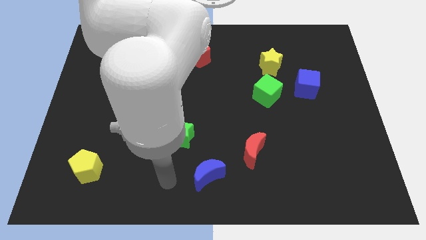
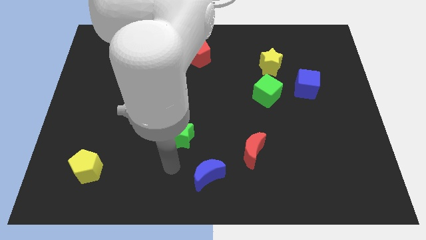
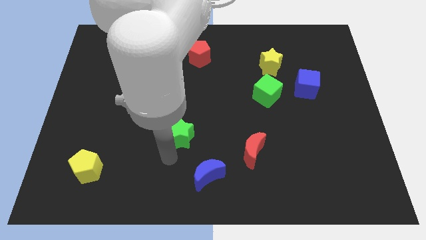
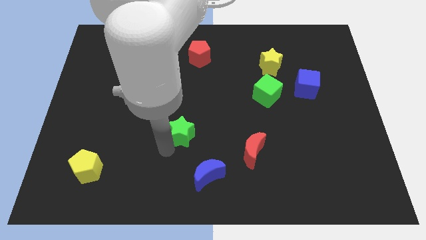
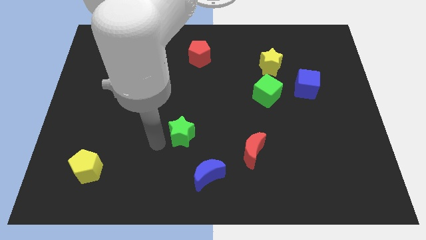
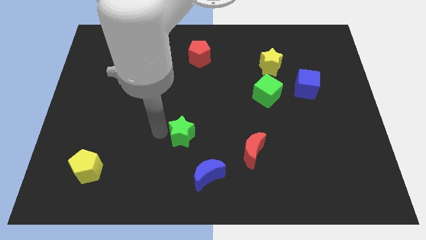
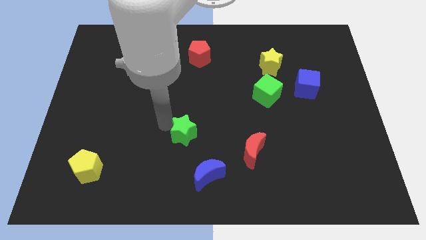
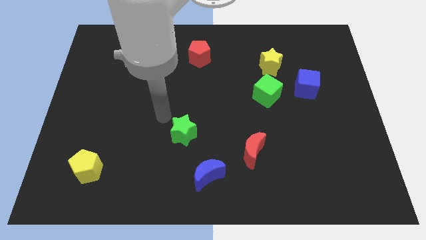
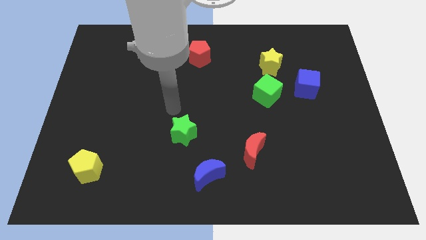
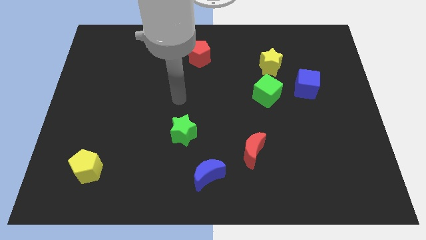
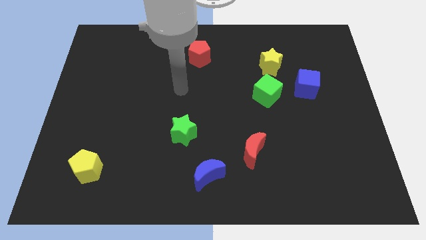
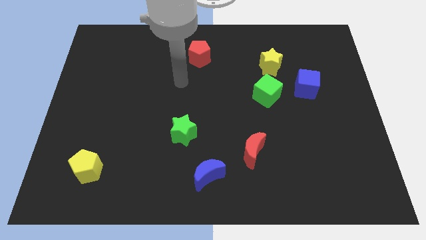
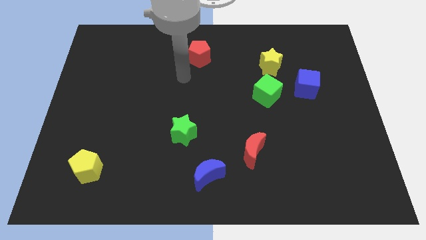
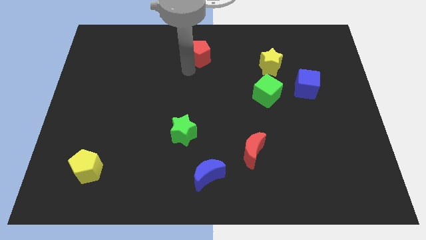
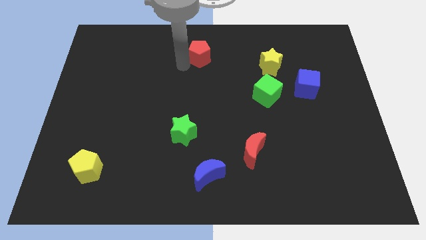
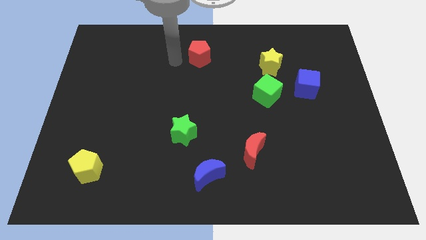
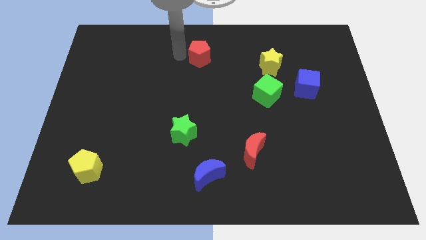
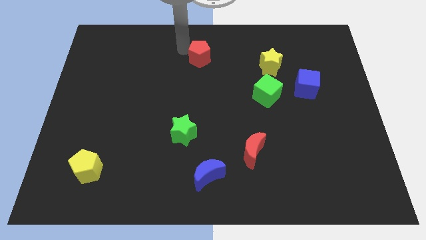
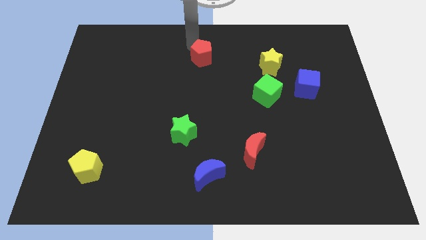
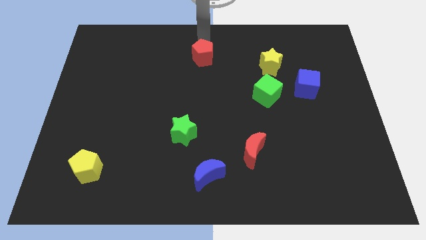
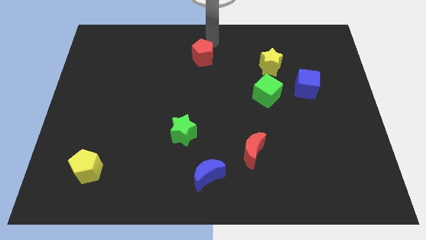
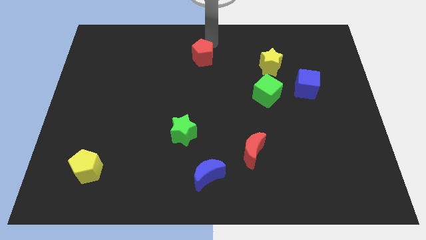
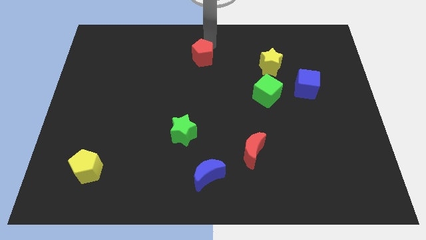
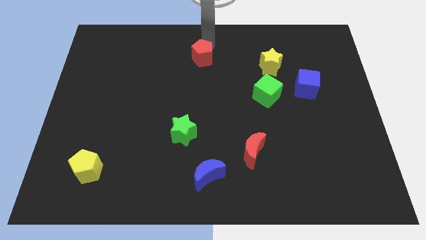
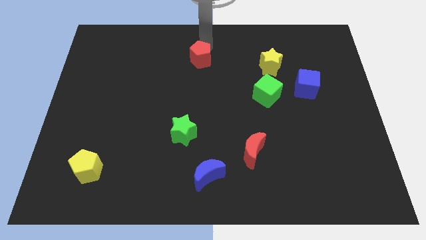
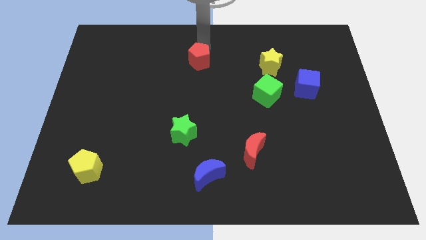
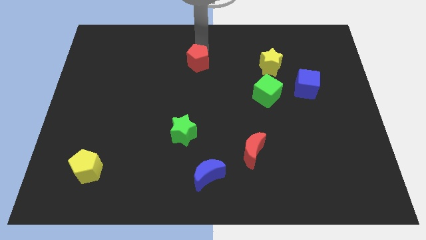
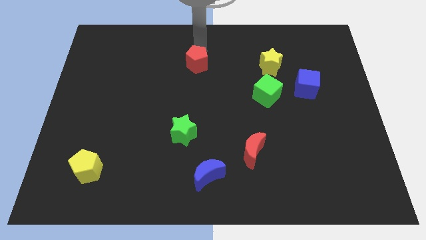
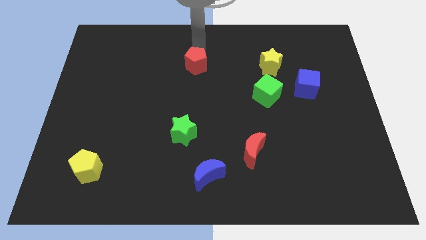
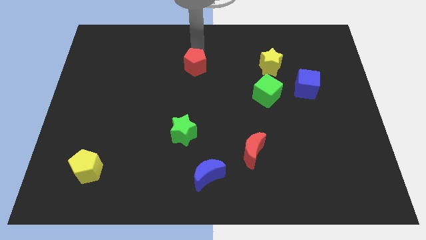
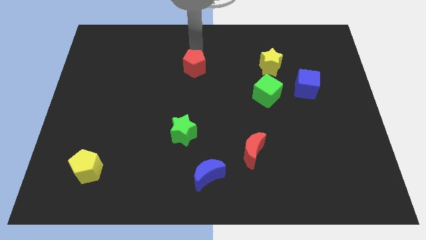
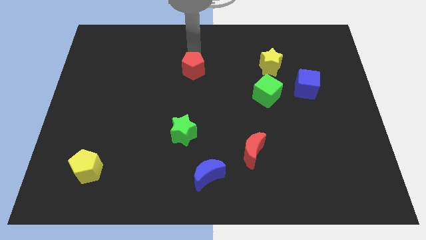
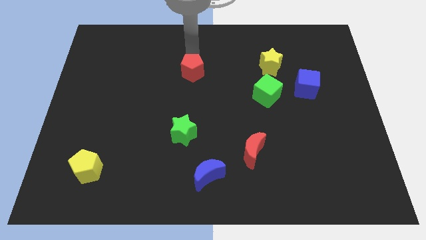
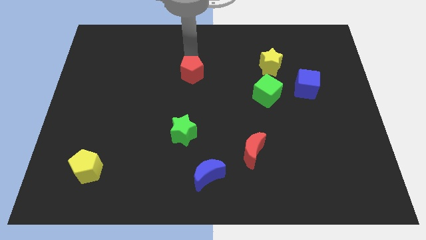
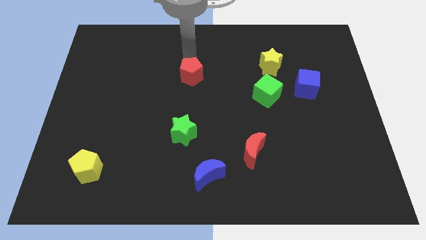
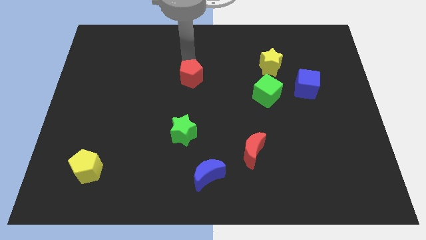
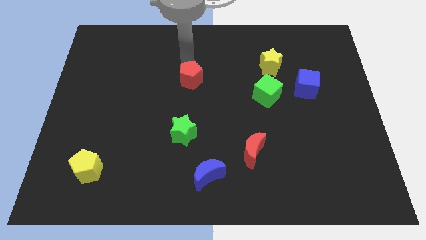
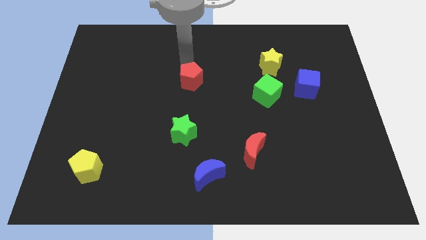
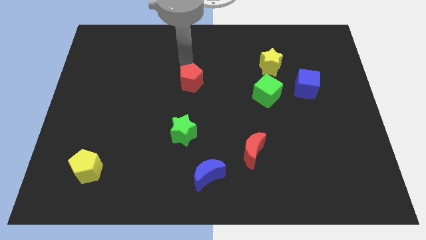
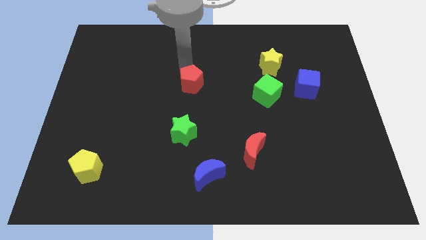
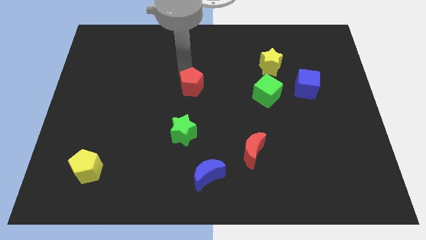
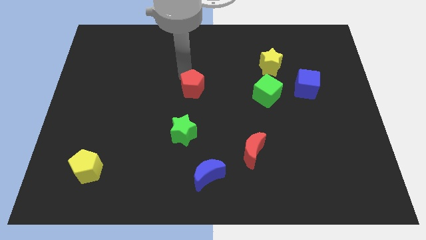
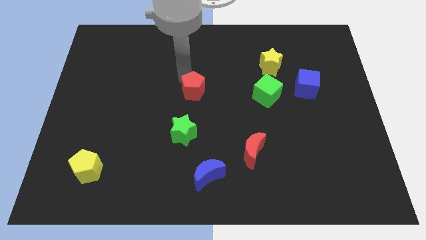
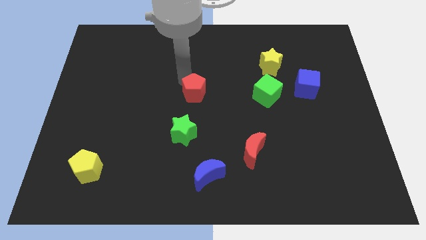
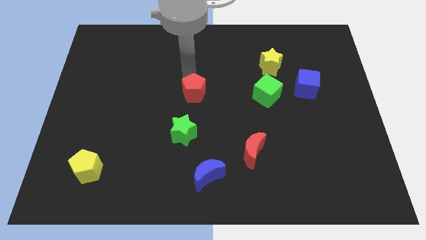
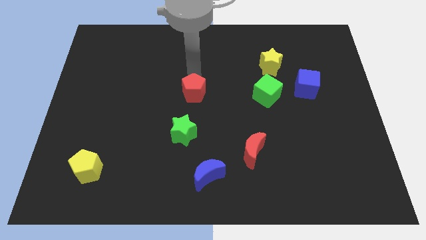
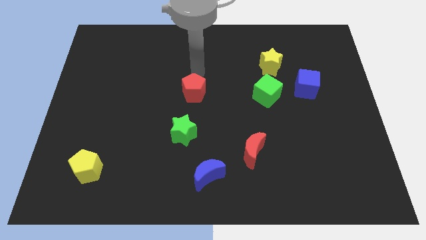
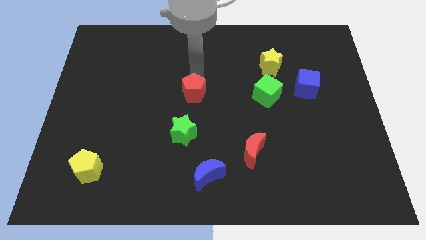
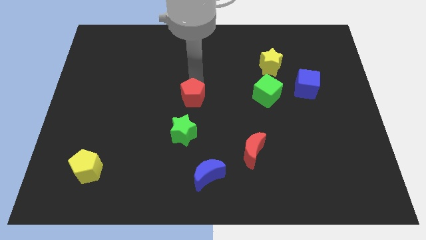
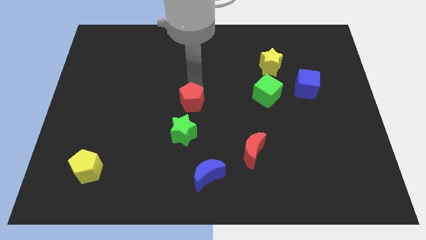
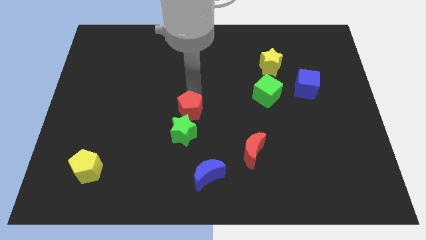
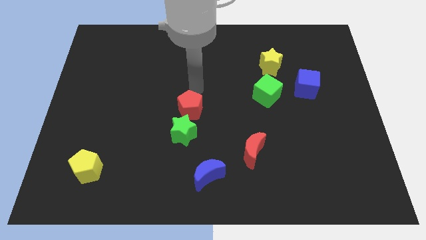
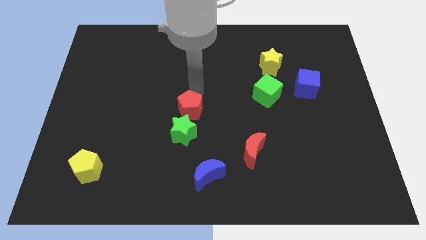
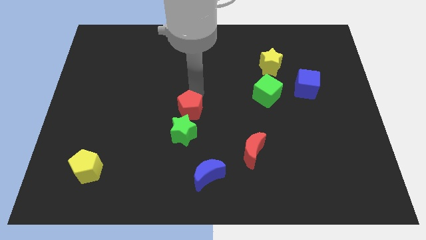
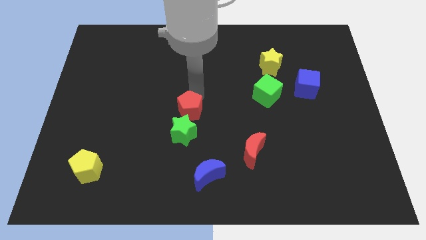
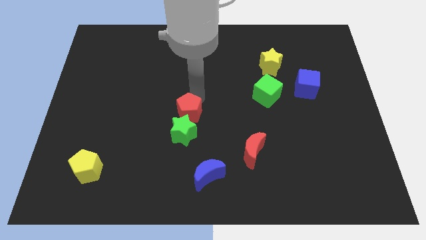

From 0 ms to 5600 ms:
push the red pentagon to the green star

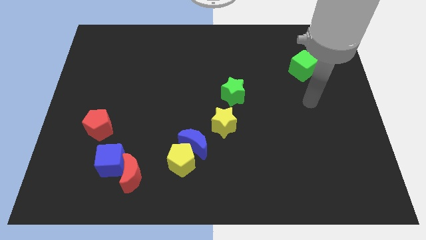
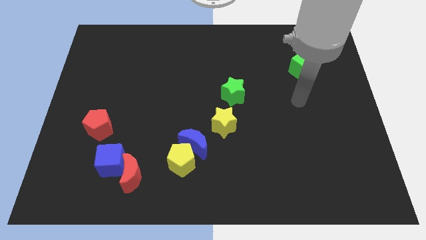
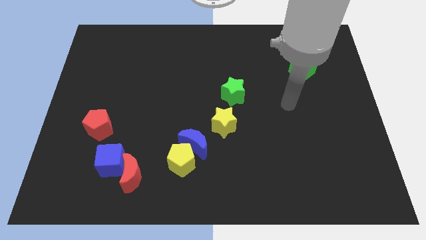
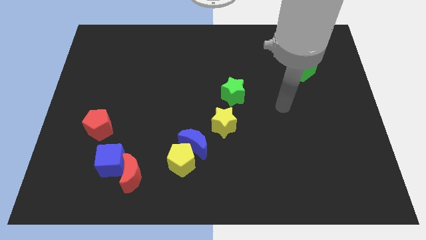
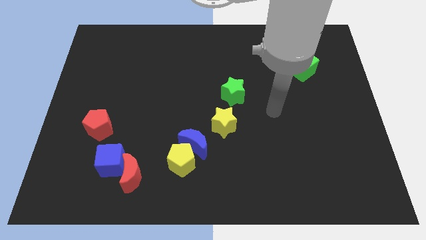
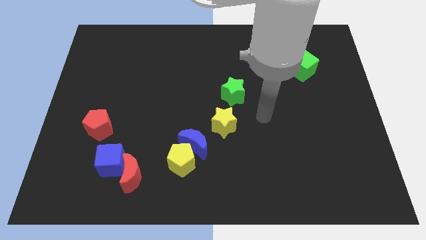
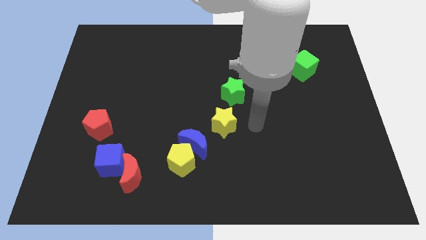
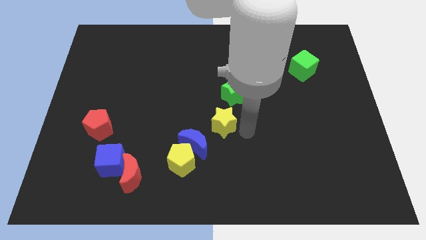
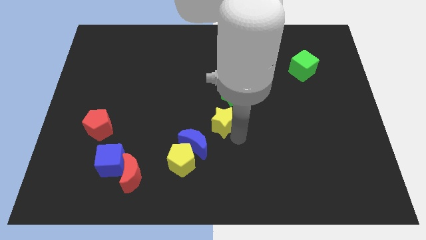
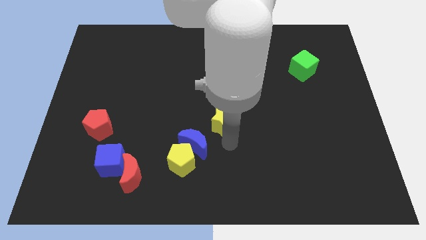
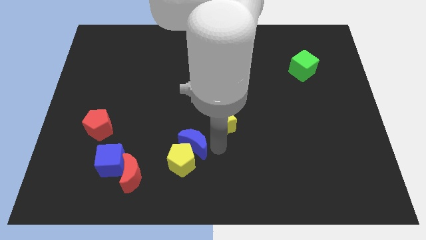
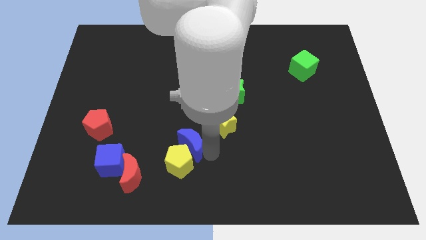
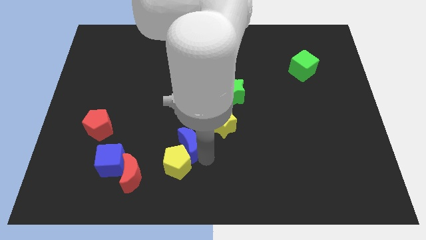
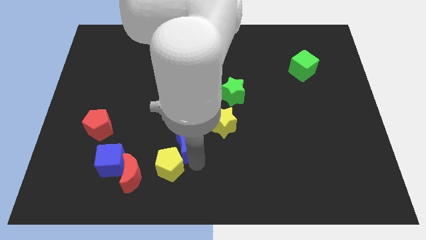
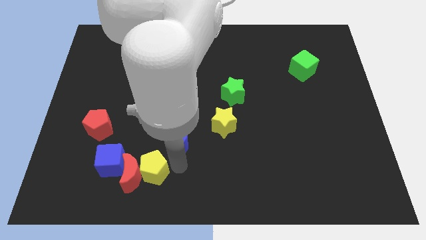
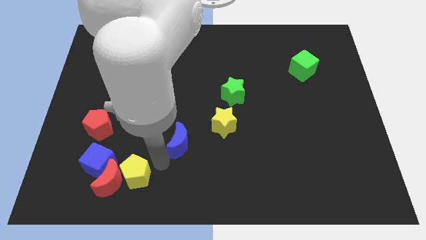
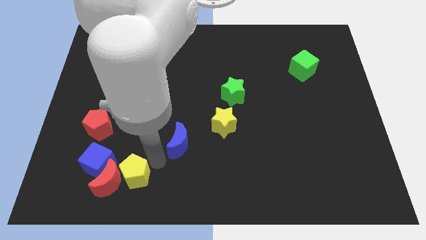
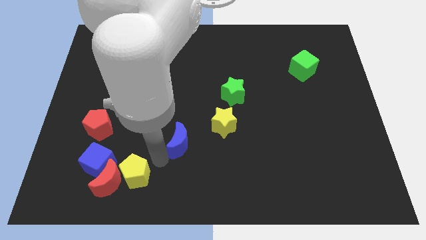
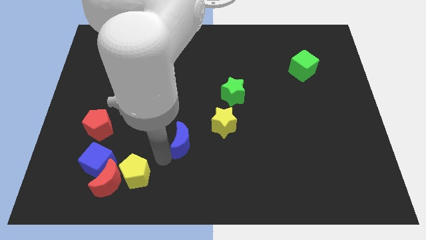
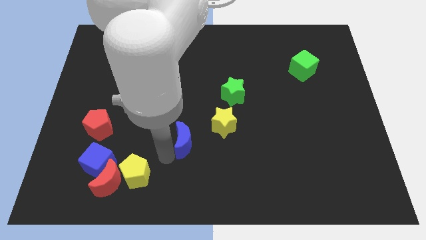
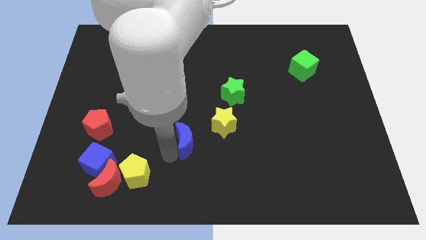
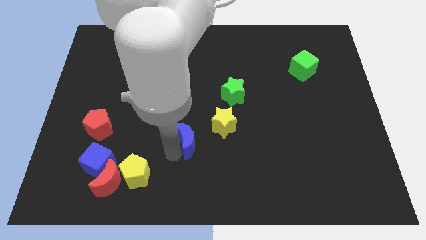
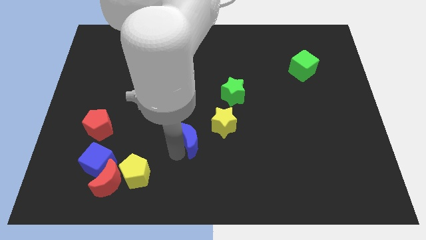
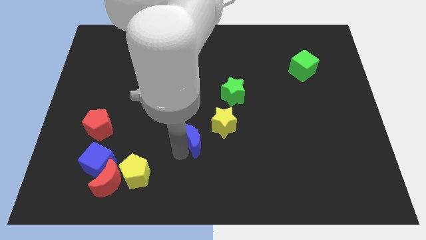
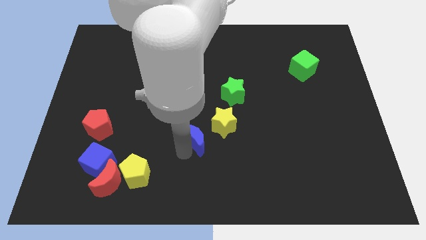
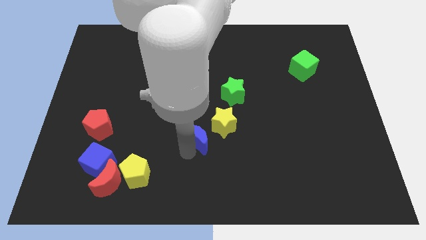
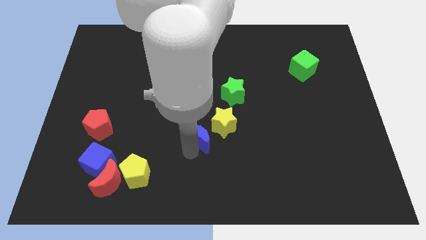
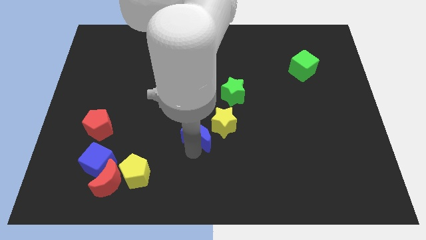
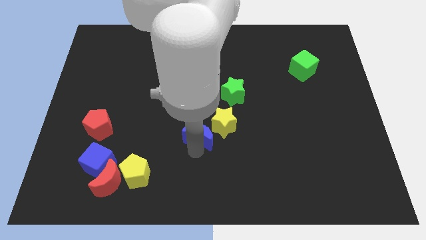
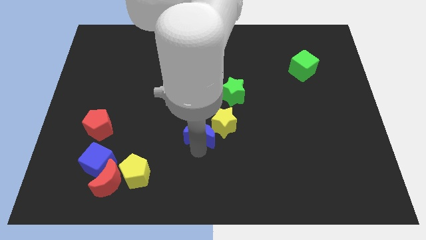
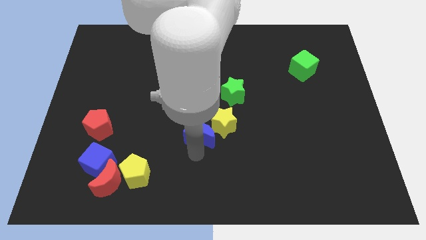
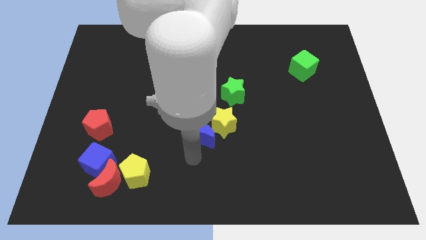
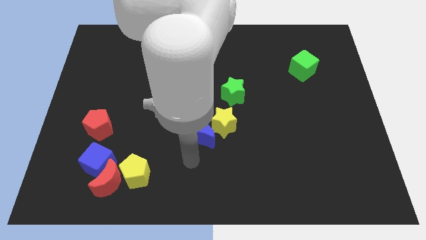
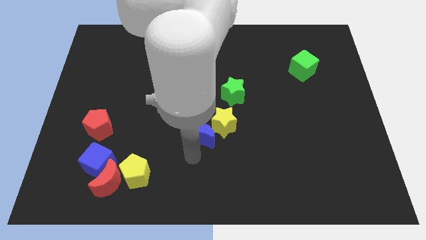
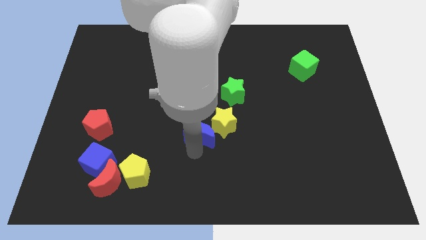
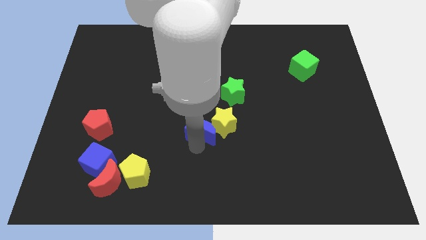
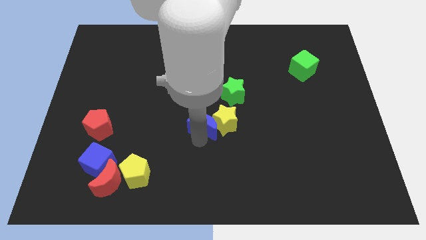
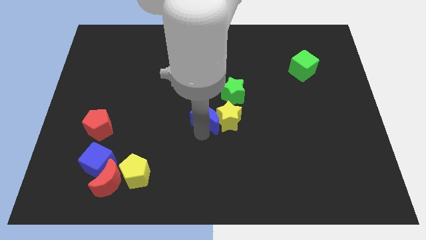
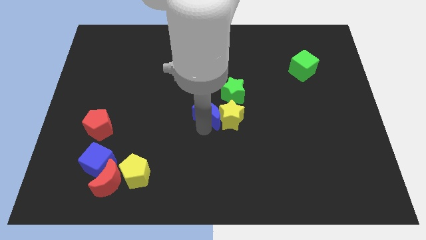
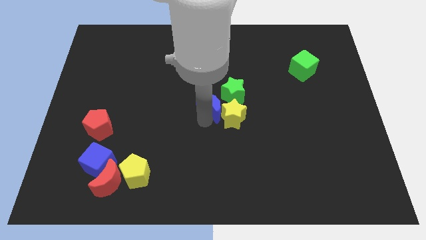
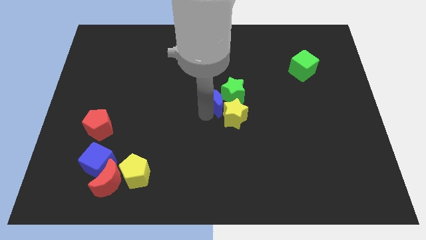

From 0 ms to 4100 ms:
push the blue moon towards the green star
